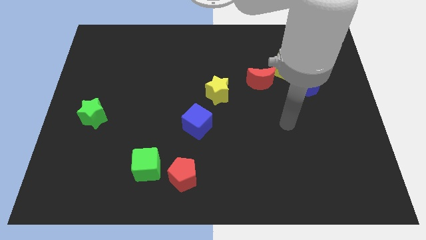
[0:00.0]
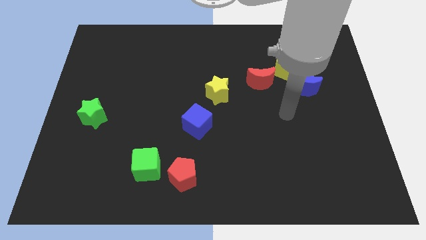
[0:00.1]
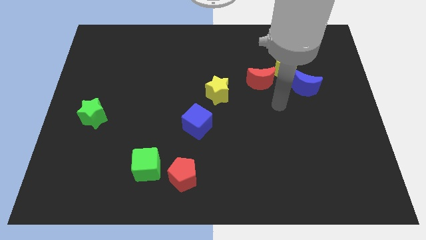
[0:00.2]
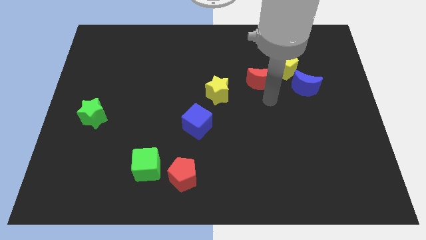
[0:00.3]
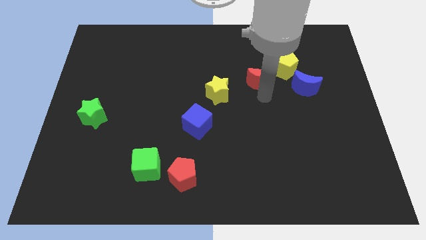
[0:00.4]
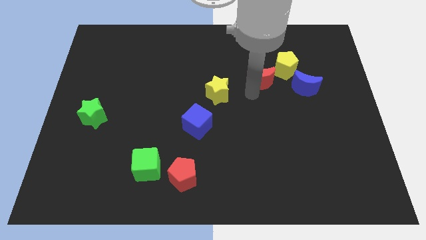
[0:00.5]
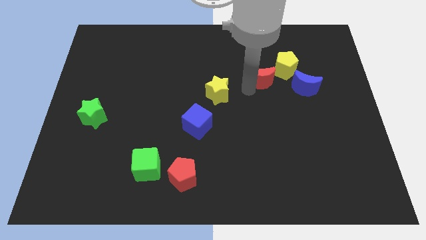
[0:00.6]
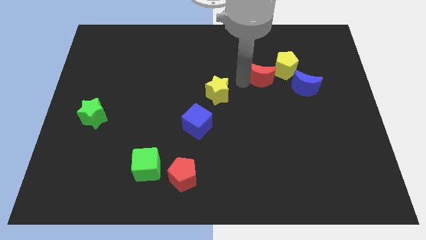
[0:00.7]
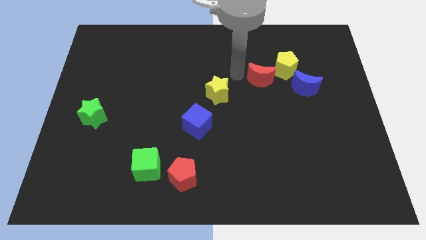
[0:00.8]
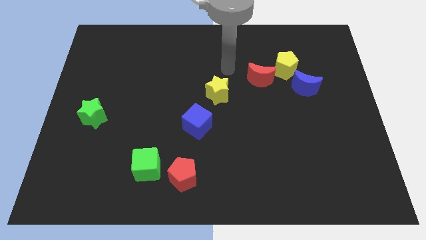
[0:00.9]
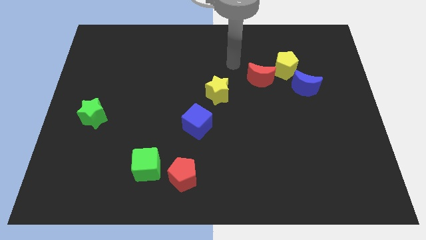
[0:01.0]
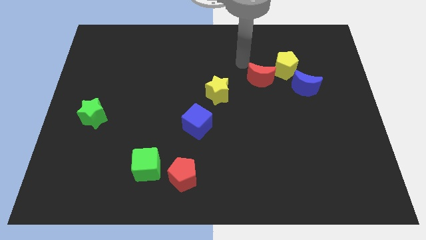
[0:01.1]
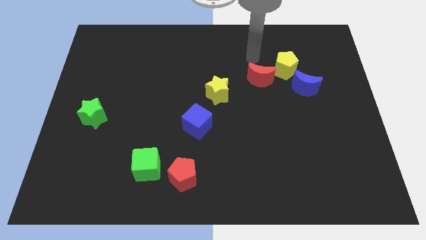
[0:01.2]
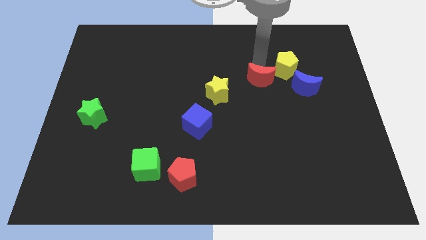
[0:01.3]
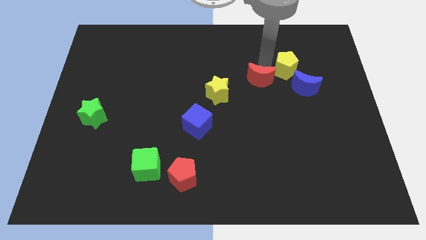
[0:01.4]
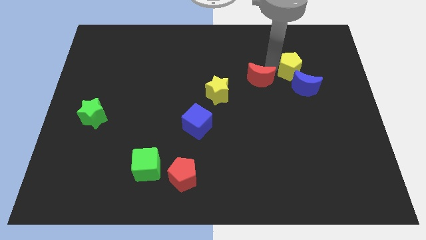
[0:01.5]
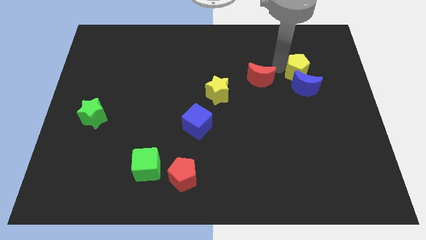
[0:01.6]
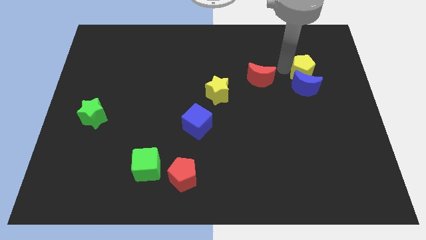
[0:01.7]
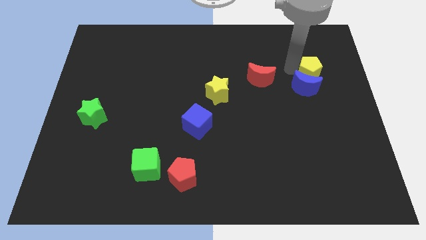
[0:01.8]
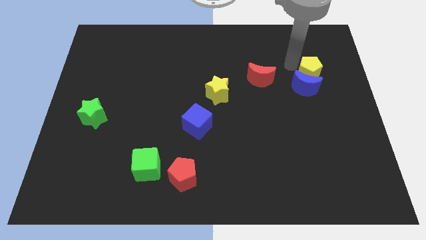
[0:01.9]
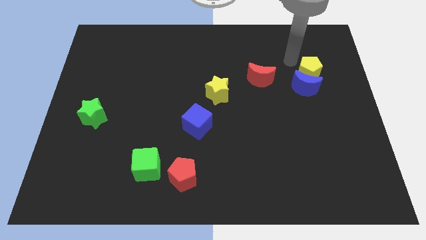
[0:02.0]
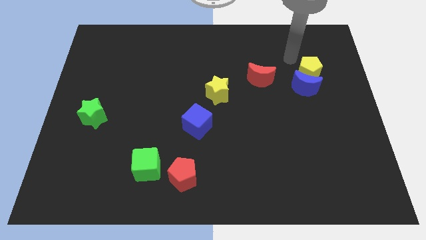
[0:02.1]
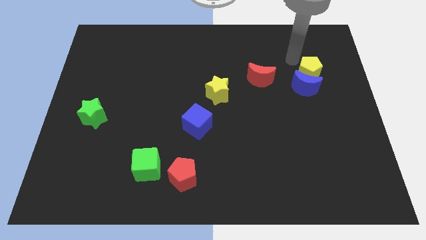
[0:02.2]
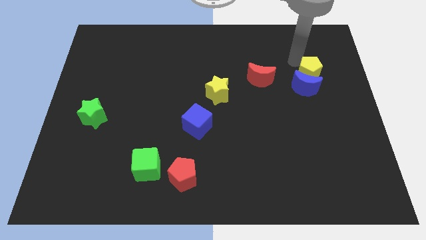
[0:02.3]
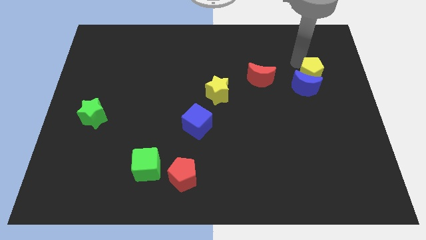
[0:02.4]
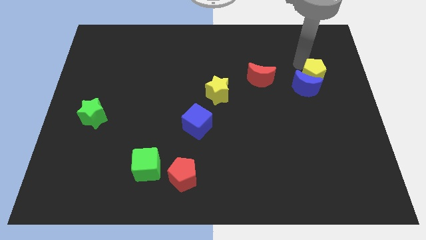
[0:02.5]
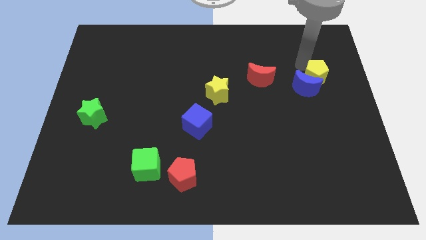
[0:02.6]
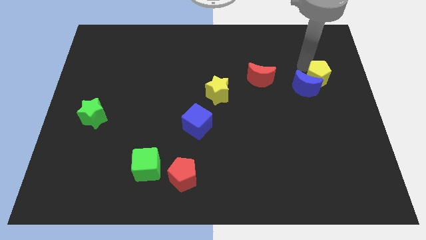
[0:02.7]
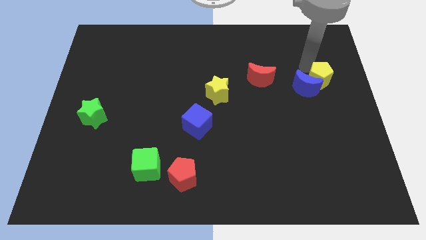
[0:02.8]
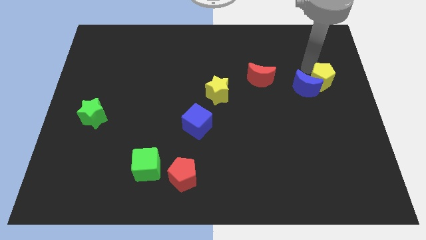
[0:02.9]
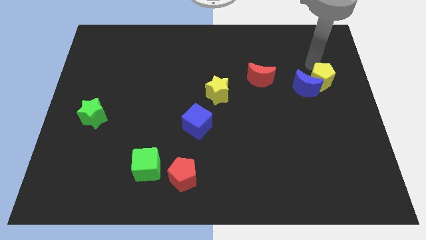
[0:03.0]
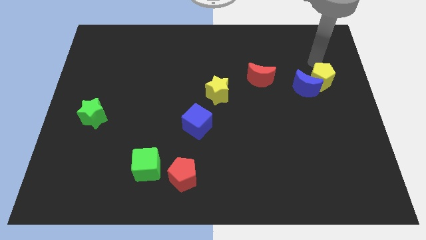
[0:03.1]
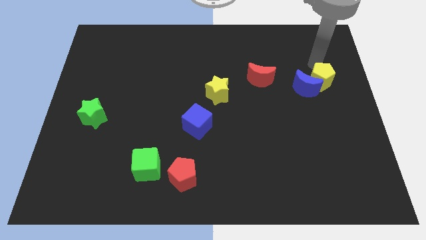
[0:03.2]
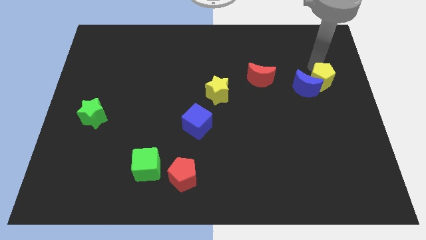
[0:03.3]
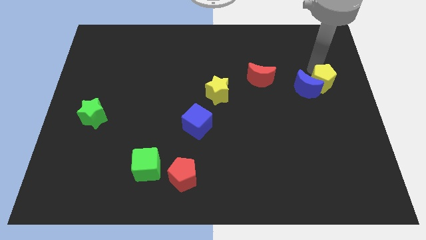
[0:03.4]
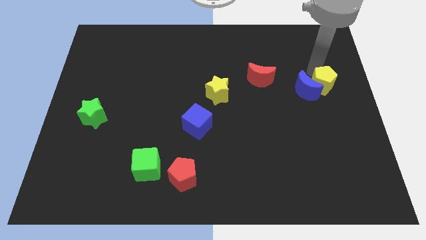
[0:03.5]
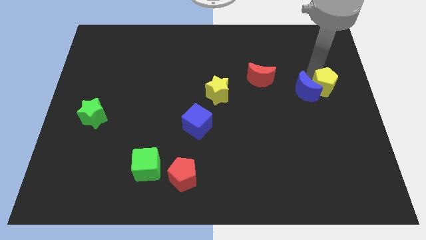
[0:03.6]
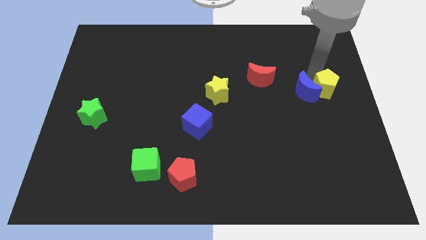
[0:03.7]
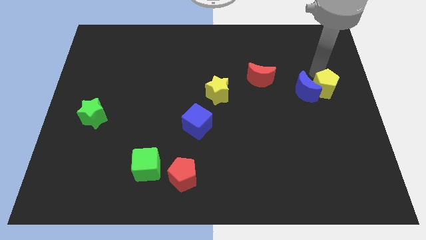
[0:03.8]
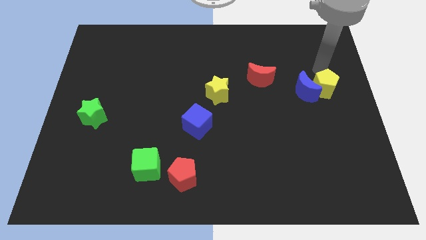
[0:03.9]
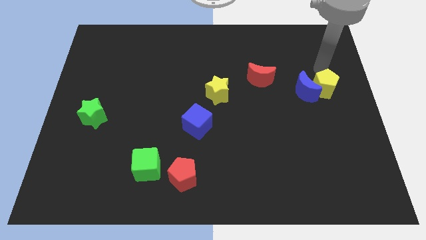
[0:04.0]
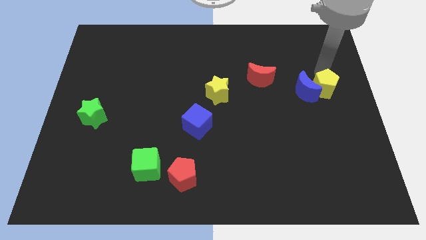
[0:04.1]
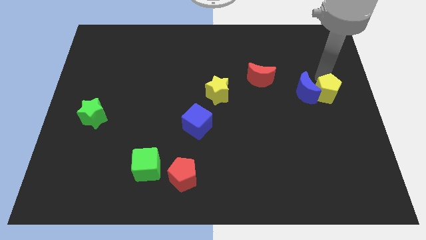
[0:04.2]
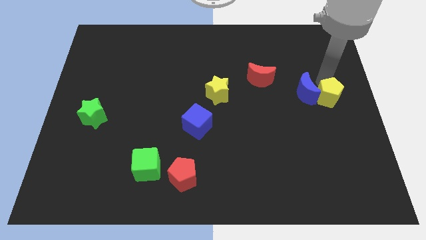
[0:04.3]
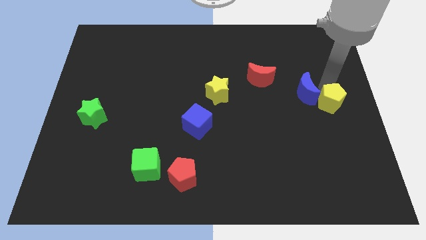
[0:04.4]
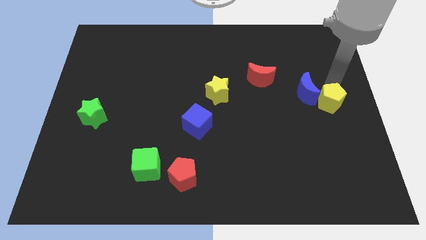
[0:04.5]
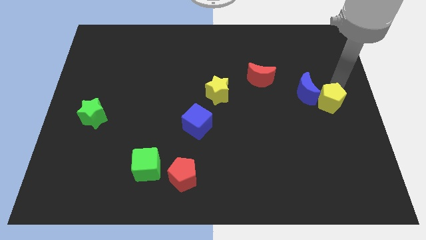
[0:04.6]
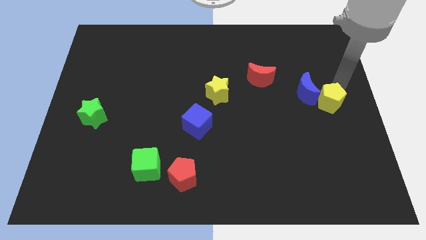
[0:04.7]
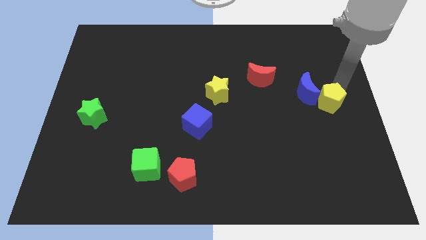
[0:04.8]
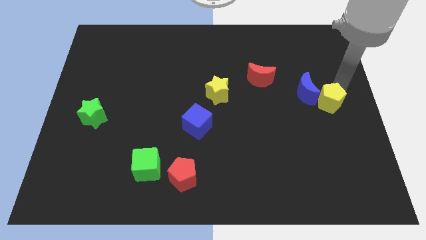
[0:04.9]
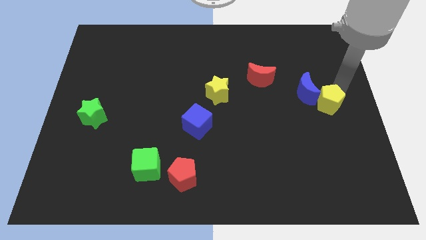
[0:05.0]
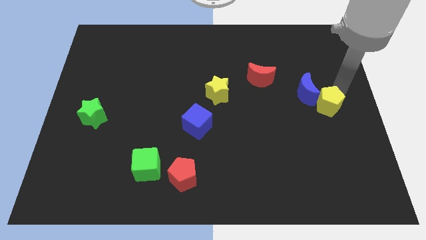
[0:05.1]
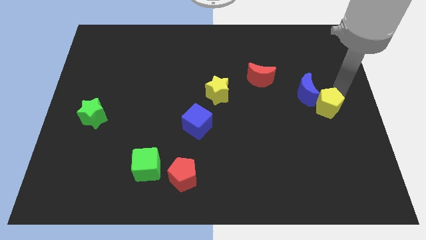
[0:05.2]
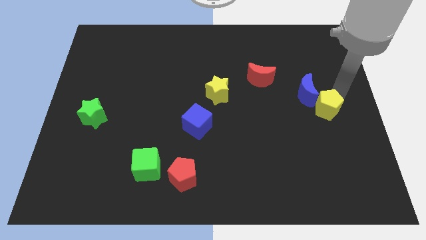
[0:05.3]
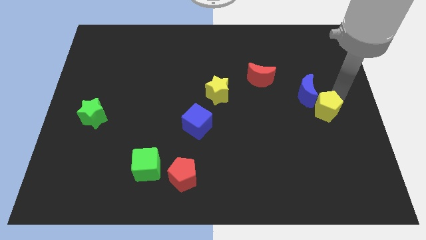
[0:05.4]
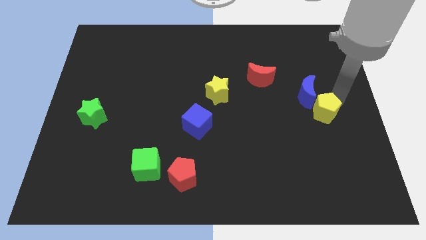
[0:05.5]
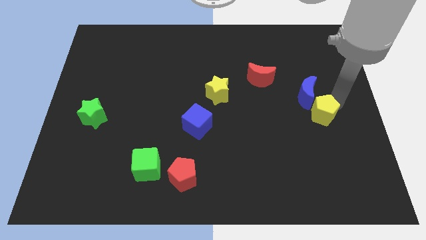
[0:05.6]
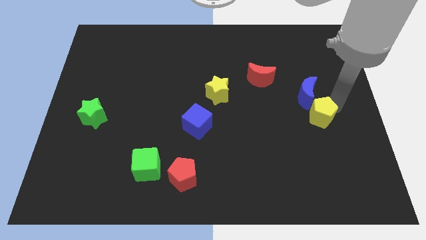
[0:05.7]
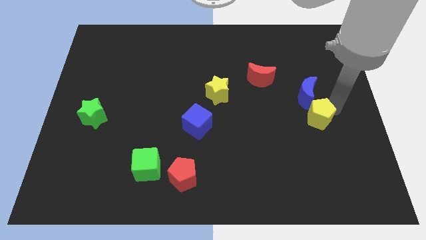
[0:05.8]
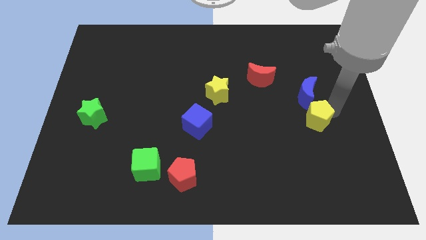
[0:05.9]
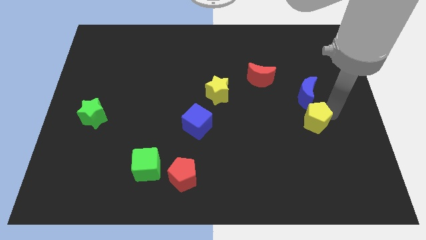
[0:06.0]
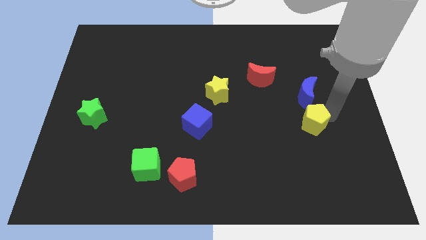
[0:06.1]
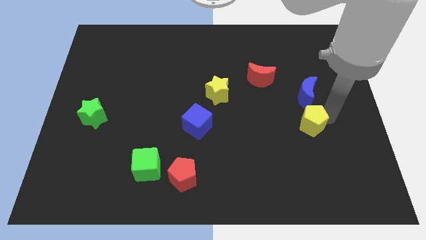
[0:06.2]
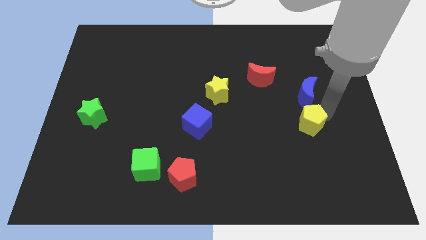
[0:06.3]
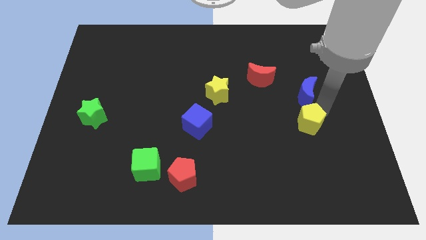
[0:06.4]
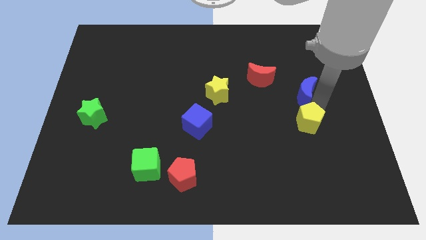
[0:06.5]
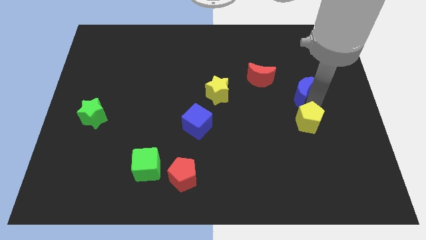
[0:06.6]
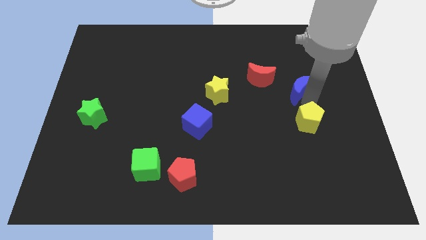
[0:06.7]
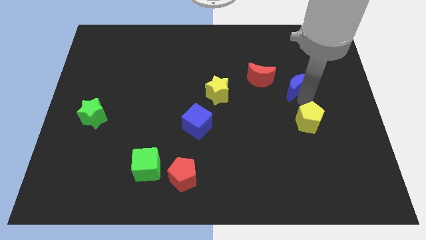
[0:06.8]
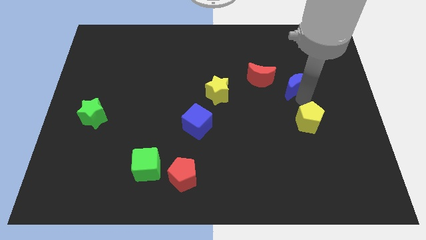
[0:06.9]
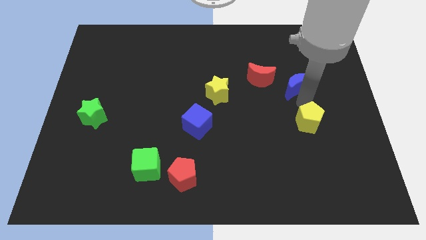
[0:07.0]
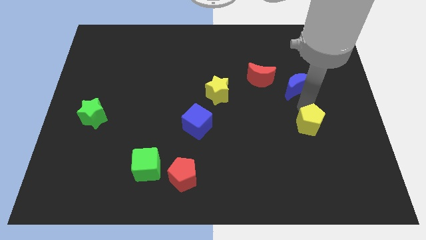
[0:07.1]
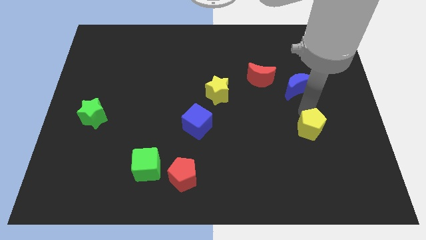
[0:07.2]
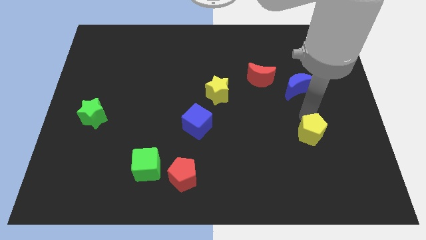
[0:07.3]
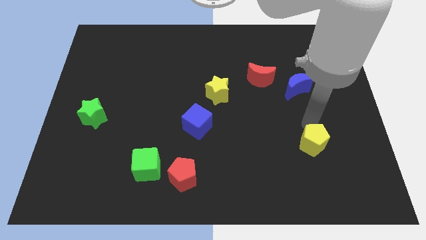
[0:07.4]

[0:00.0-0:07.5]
move the yellow pentagon downwards

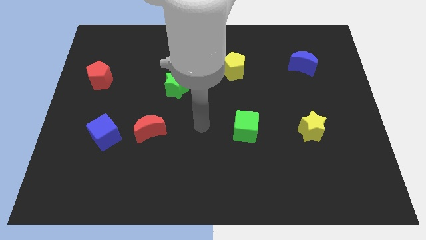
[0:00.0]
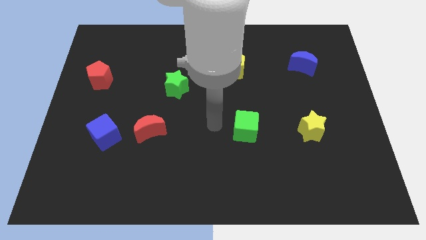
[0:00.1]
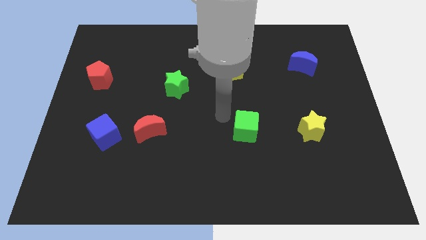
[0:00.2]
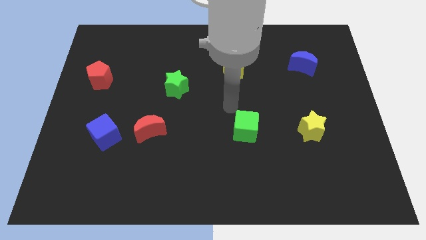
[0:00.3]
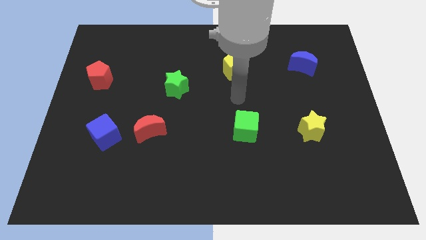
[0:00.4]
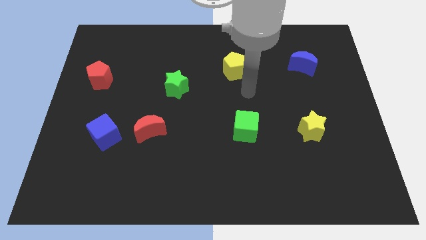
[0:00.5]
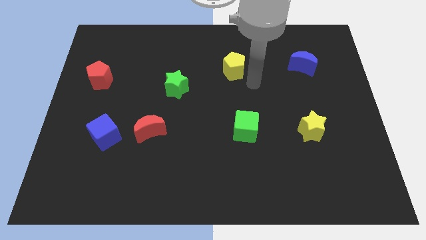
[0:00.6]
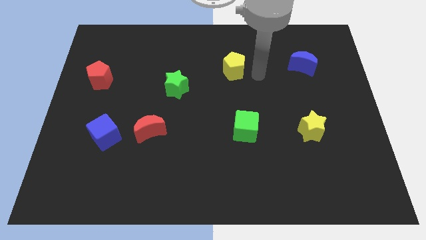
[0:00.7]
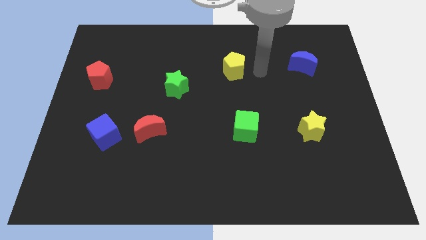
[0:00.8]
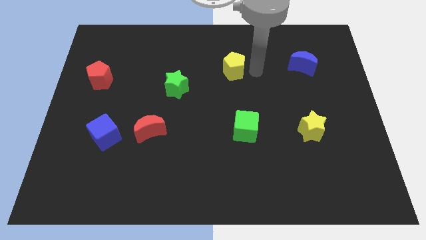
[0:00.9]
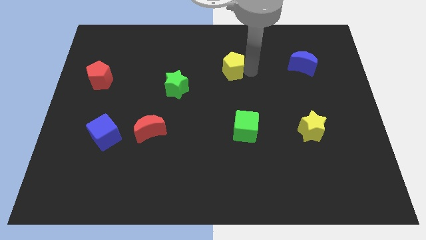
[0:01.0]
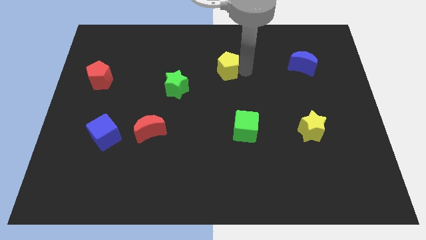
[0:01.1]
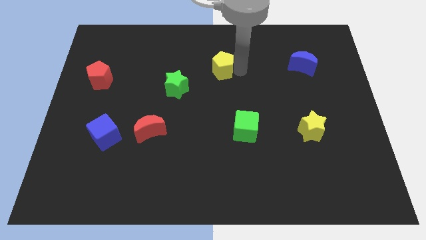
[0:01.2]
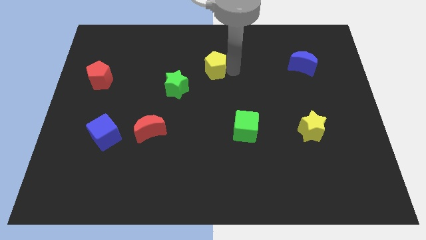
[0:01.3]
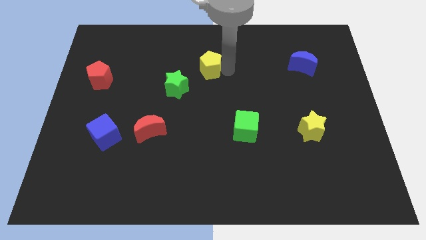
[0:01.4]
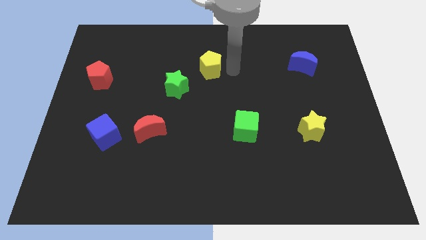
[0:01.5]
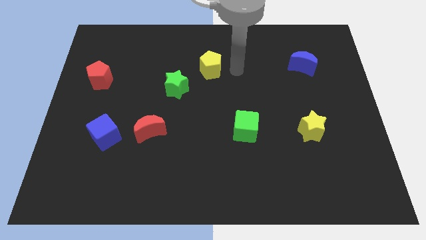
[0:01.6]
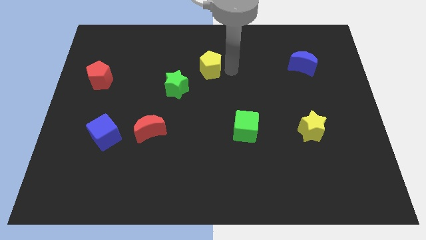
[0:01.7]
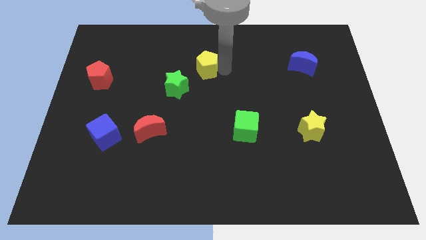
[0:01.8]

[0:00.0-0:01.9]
move the yellow pentagon left a little bit
